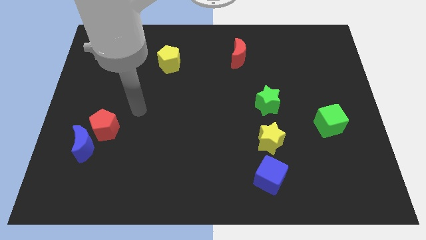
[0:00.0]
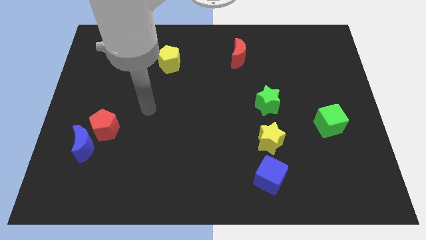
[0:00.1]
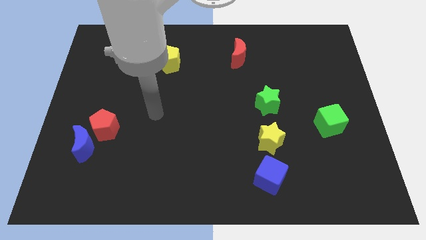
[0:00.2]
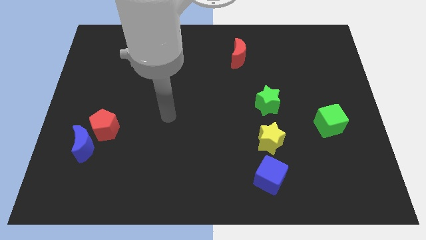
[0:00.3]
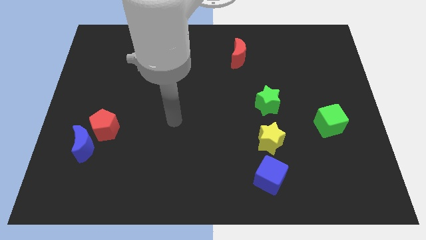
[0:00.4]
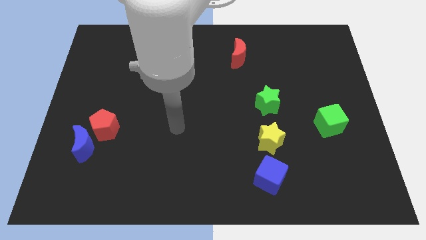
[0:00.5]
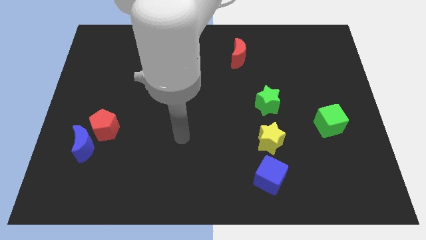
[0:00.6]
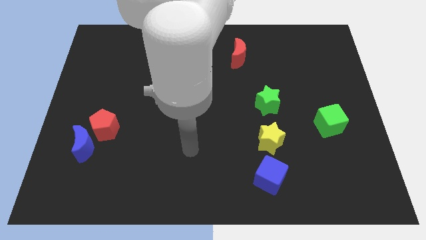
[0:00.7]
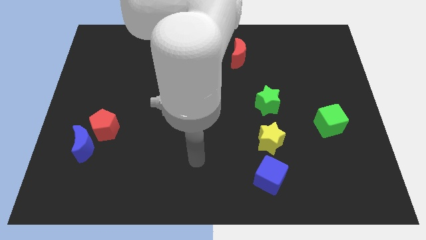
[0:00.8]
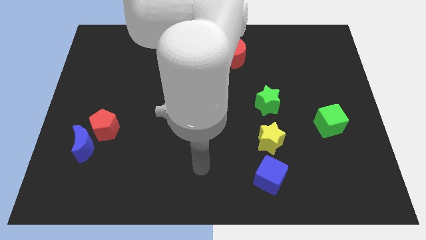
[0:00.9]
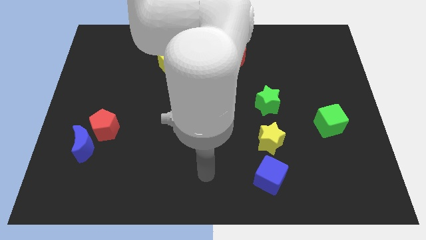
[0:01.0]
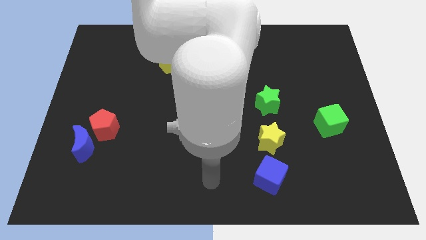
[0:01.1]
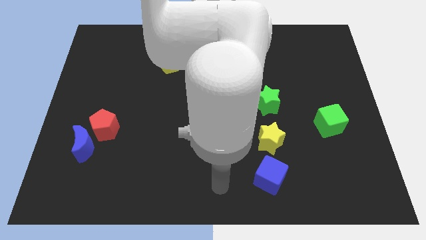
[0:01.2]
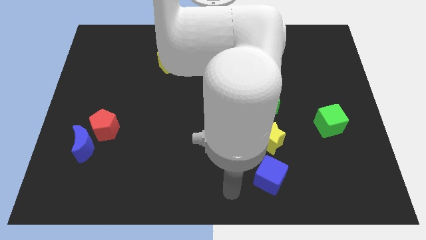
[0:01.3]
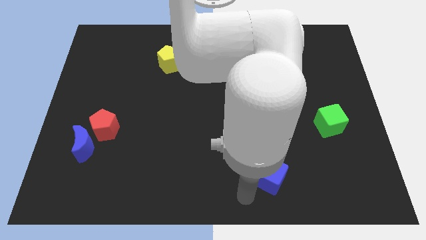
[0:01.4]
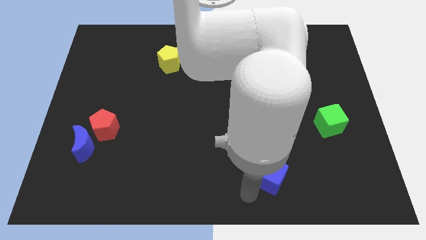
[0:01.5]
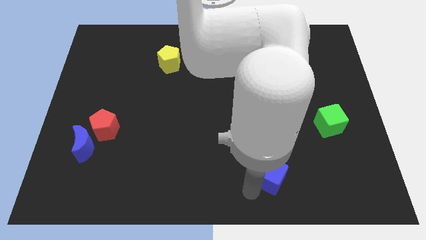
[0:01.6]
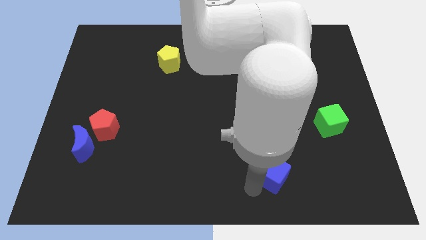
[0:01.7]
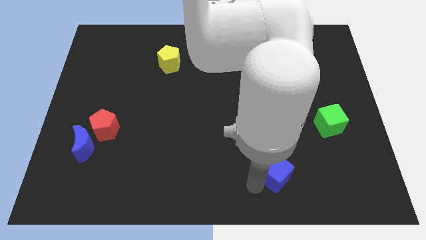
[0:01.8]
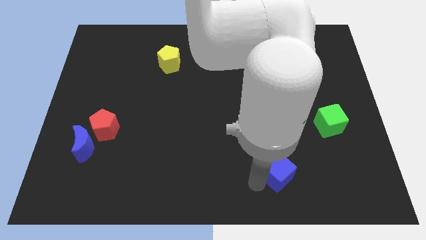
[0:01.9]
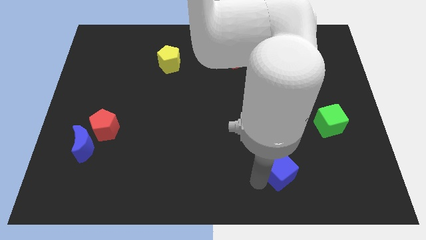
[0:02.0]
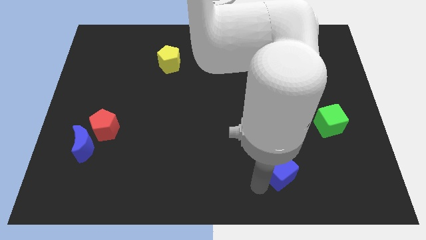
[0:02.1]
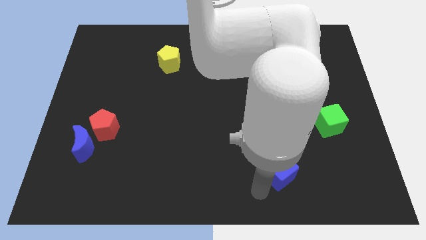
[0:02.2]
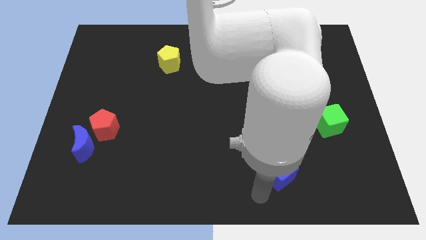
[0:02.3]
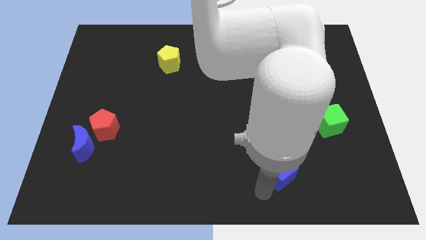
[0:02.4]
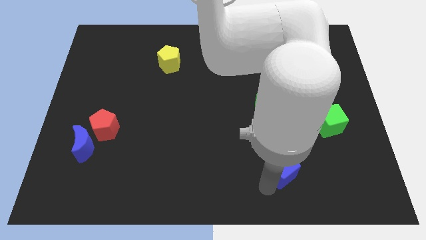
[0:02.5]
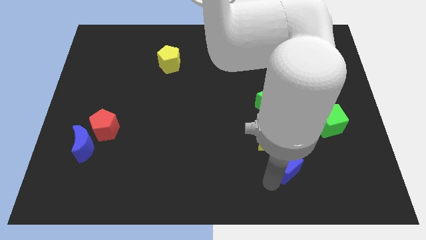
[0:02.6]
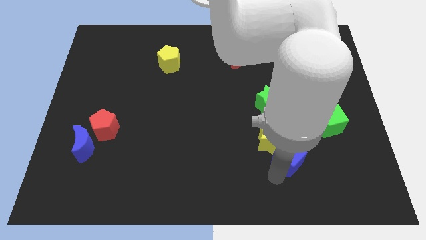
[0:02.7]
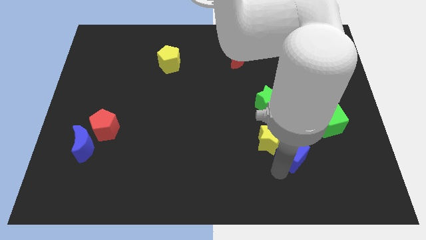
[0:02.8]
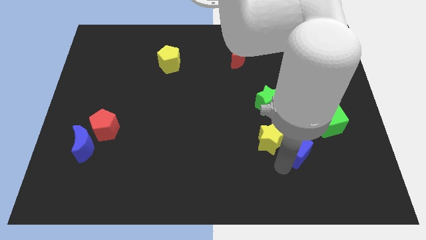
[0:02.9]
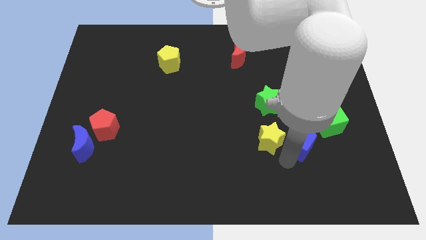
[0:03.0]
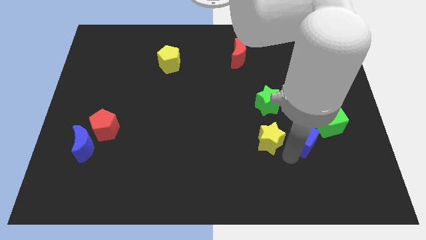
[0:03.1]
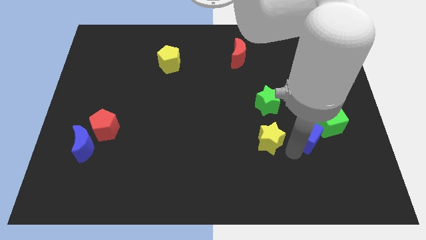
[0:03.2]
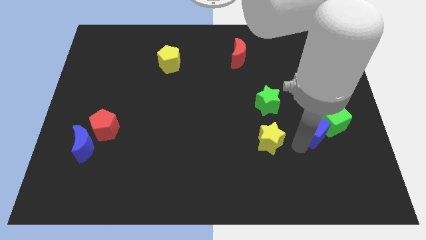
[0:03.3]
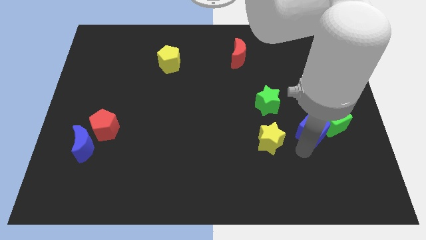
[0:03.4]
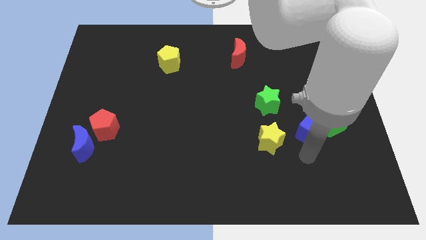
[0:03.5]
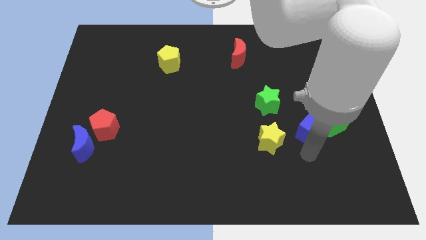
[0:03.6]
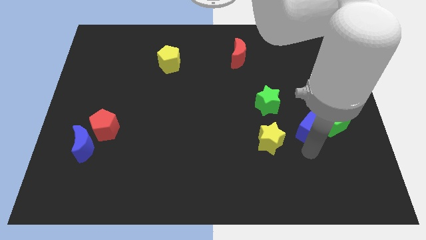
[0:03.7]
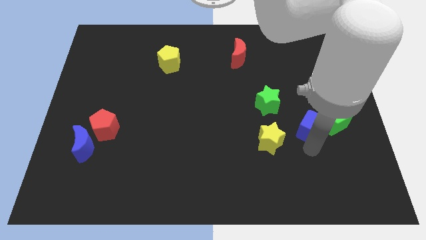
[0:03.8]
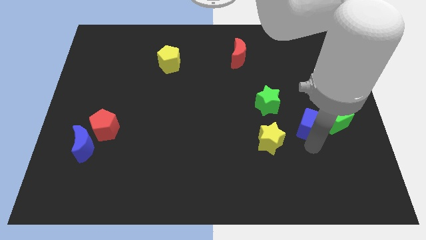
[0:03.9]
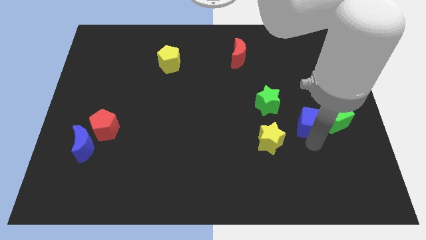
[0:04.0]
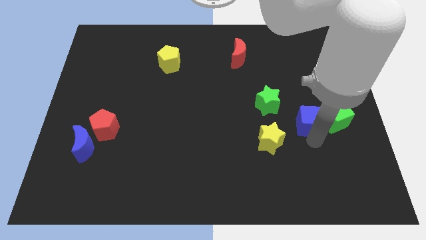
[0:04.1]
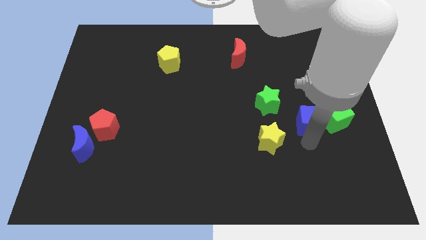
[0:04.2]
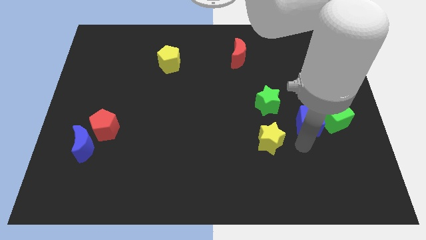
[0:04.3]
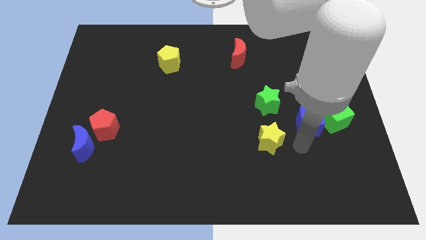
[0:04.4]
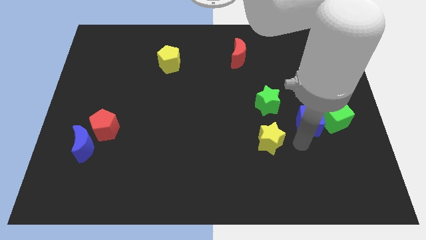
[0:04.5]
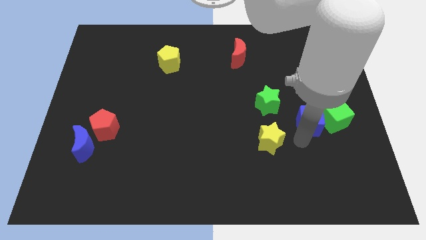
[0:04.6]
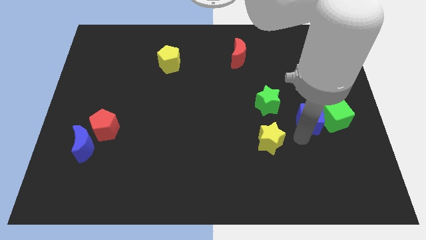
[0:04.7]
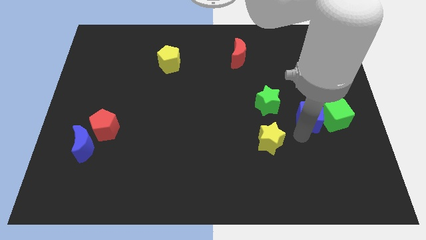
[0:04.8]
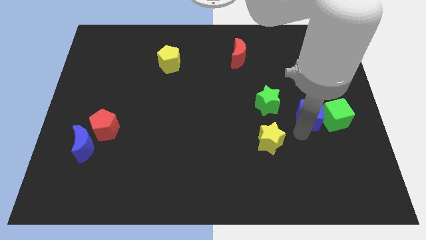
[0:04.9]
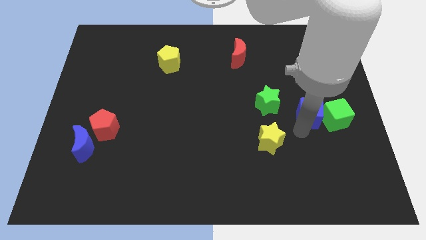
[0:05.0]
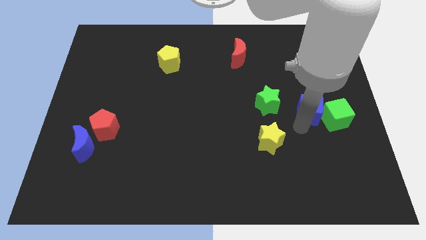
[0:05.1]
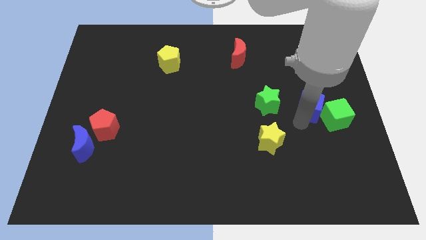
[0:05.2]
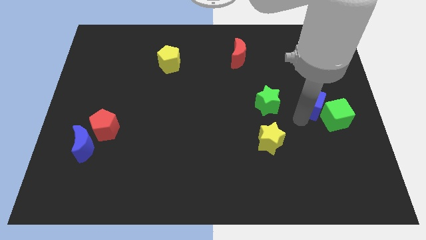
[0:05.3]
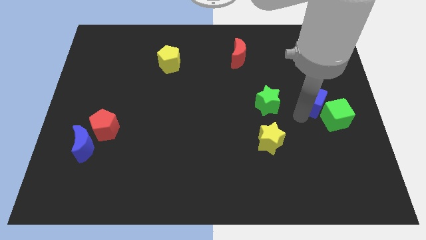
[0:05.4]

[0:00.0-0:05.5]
move the blue cube to the top of the green cube

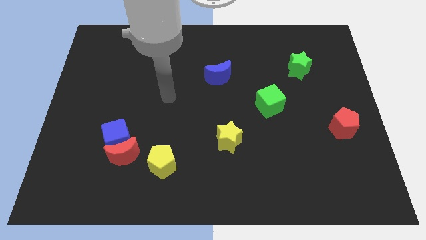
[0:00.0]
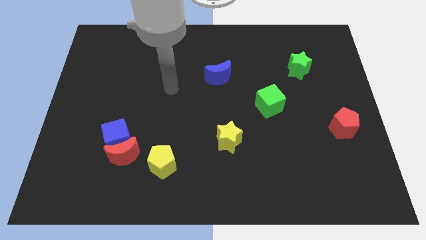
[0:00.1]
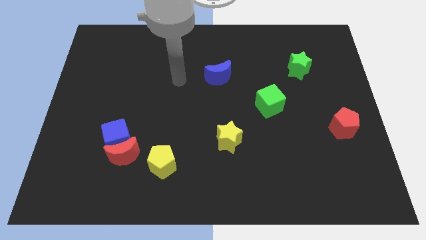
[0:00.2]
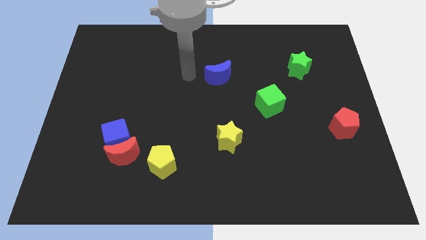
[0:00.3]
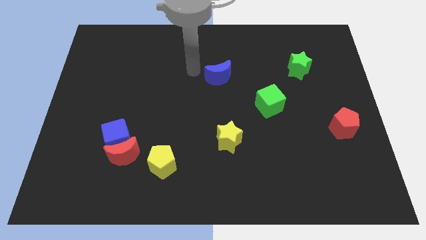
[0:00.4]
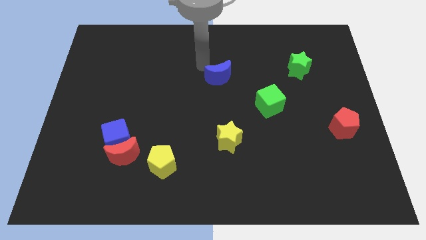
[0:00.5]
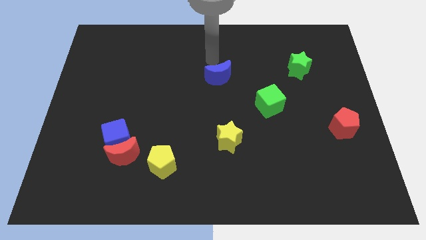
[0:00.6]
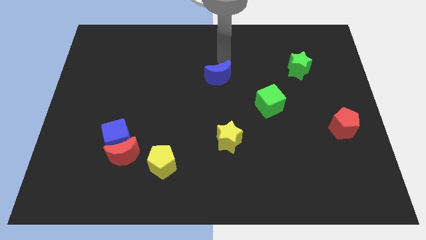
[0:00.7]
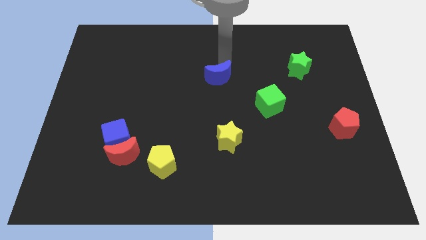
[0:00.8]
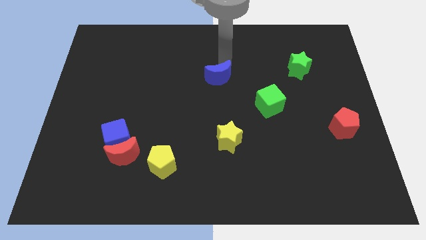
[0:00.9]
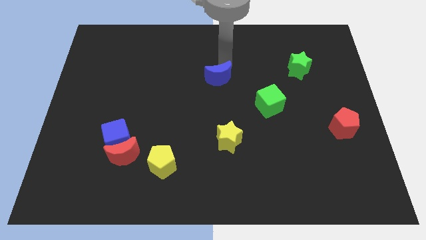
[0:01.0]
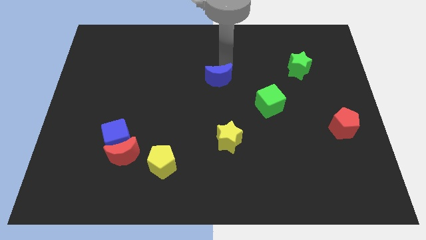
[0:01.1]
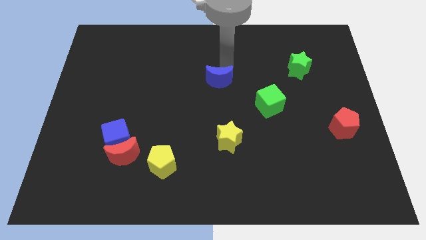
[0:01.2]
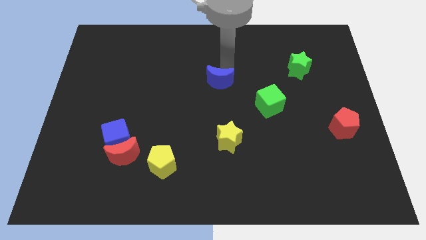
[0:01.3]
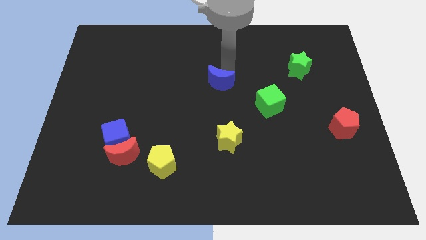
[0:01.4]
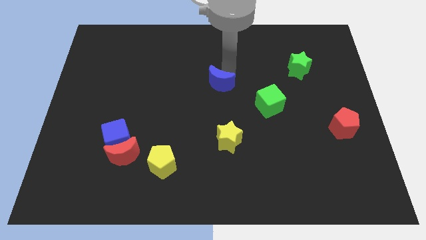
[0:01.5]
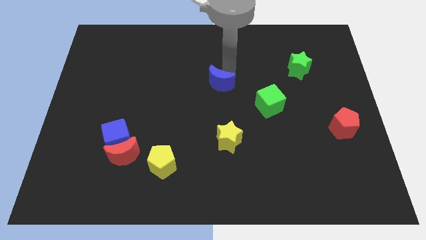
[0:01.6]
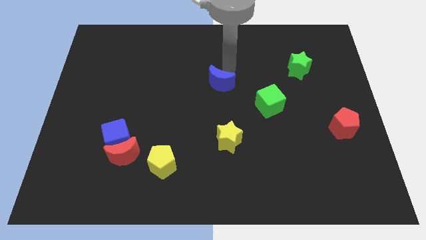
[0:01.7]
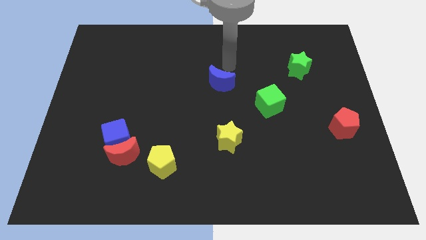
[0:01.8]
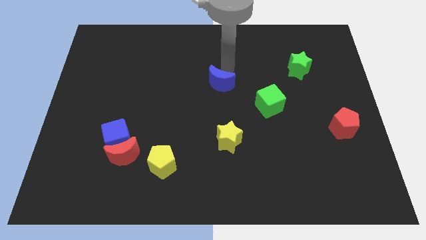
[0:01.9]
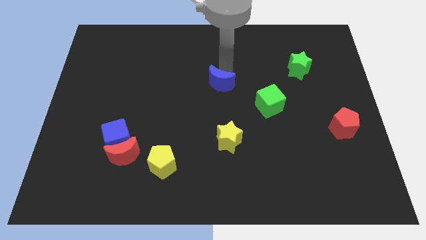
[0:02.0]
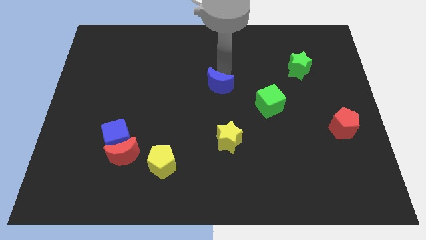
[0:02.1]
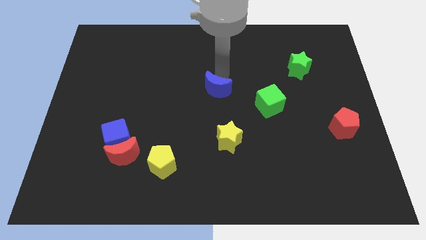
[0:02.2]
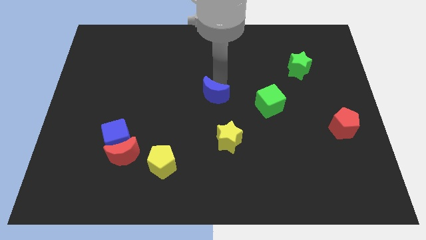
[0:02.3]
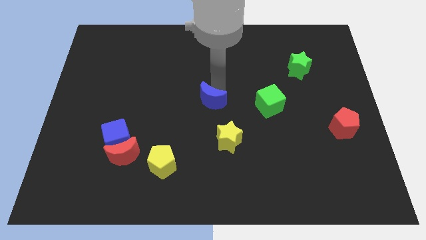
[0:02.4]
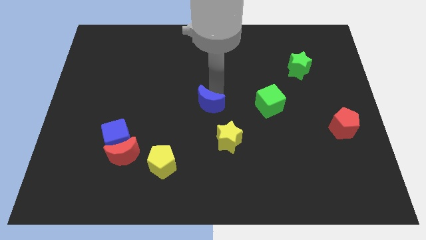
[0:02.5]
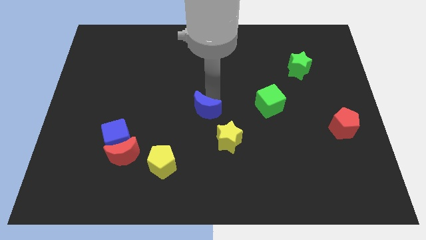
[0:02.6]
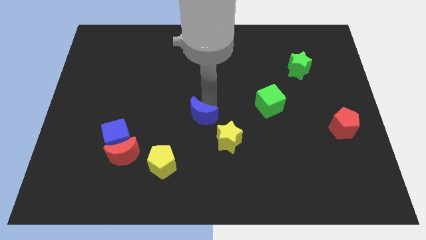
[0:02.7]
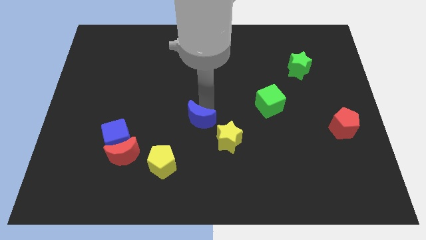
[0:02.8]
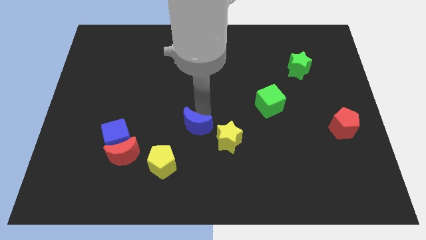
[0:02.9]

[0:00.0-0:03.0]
push the blue moon to the top right of the yellow pentagon
